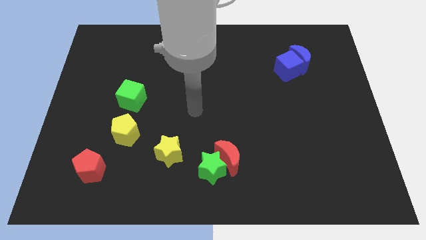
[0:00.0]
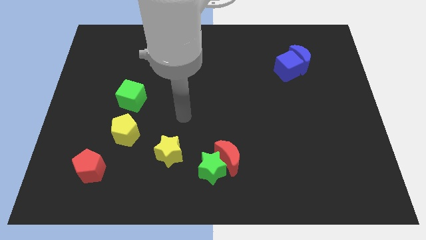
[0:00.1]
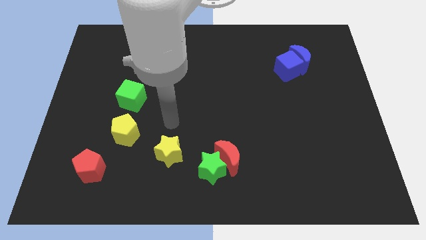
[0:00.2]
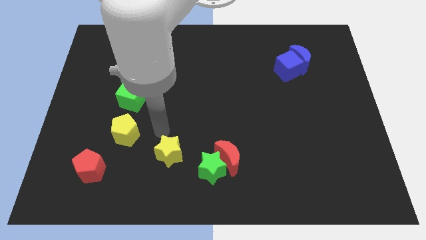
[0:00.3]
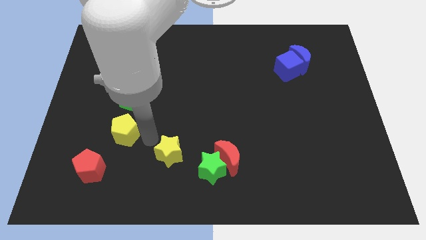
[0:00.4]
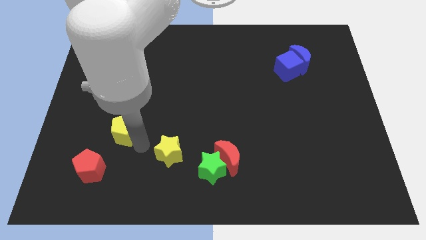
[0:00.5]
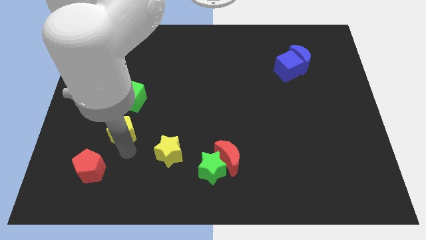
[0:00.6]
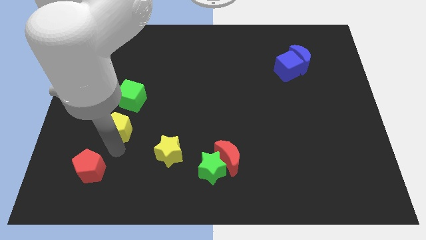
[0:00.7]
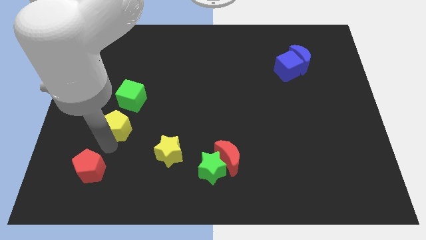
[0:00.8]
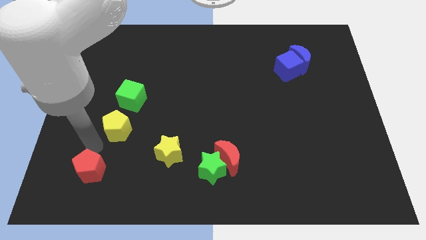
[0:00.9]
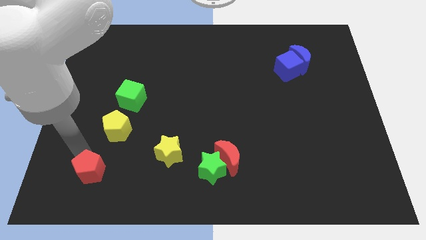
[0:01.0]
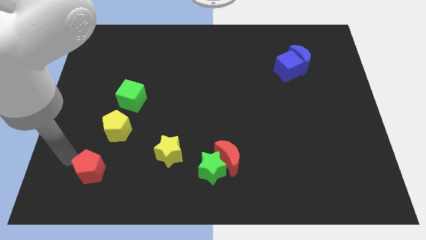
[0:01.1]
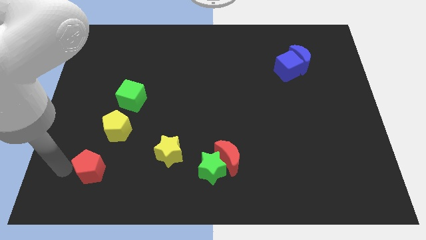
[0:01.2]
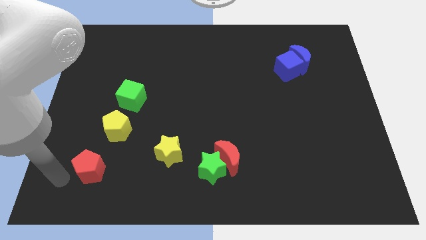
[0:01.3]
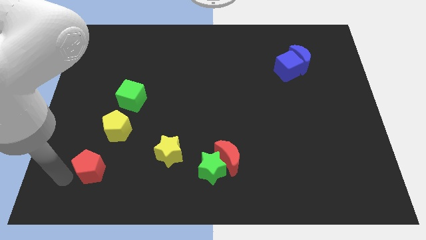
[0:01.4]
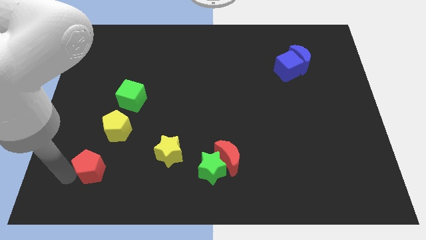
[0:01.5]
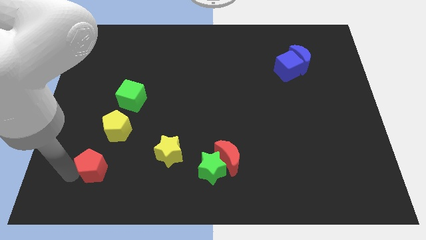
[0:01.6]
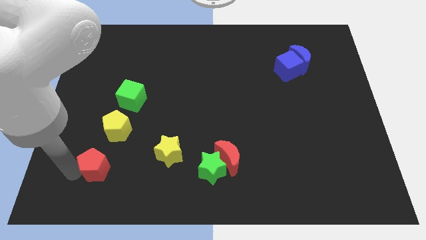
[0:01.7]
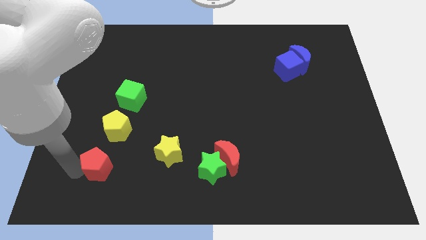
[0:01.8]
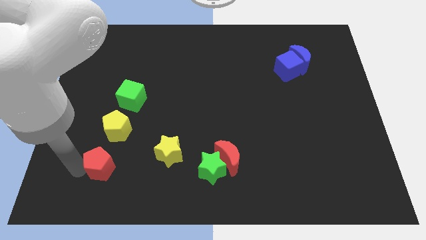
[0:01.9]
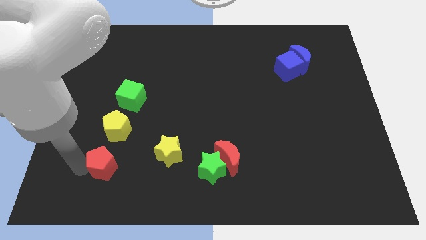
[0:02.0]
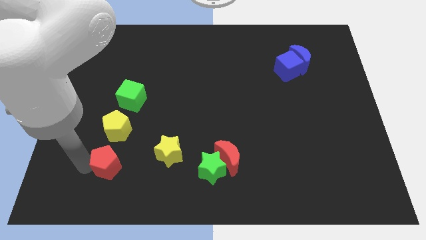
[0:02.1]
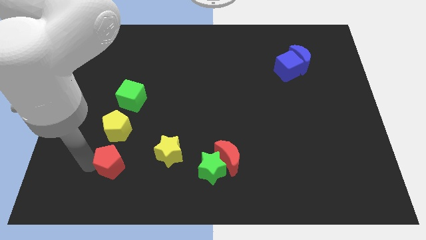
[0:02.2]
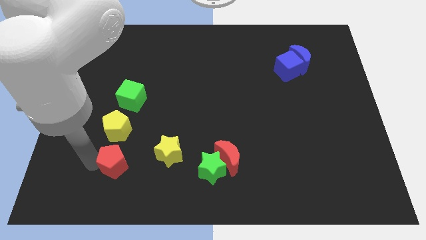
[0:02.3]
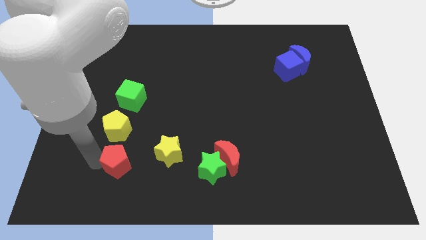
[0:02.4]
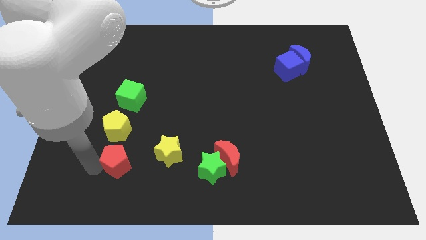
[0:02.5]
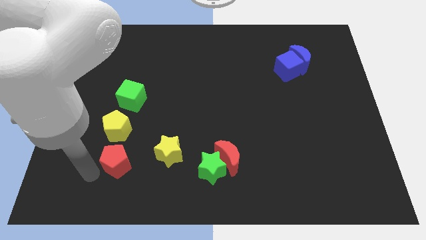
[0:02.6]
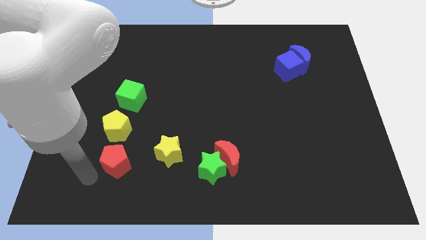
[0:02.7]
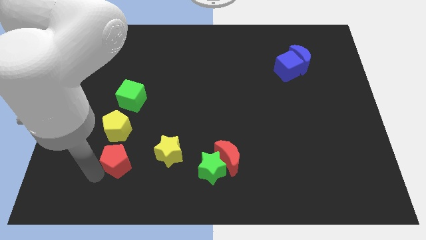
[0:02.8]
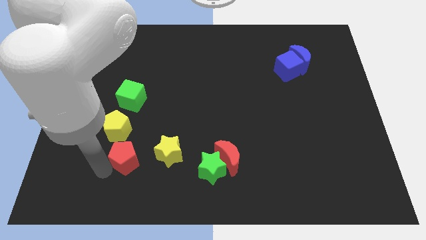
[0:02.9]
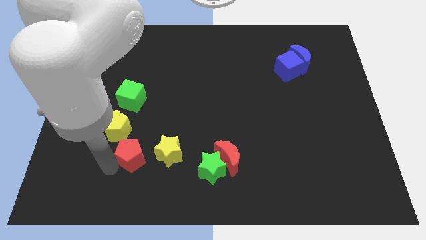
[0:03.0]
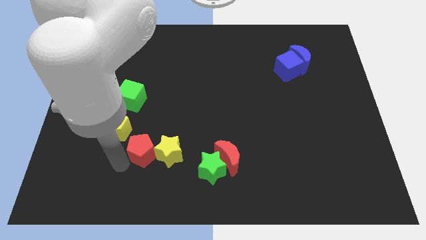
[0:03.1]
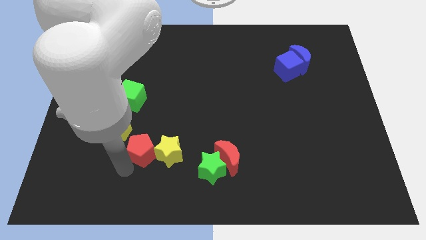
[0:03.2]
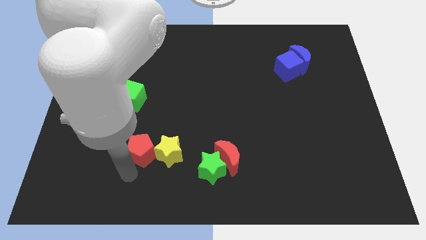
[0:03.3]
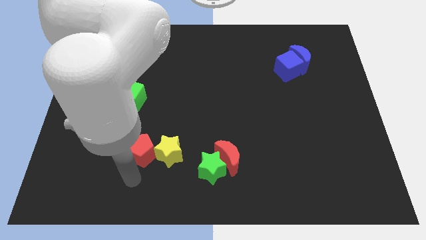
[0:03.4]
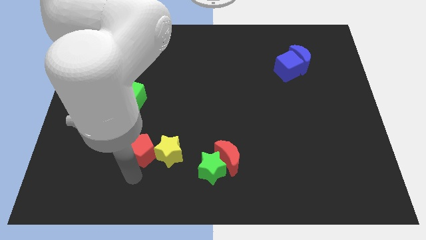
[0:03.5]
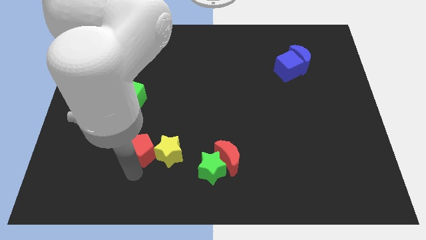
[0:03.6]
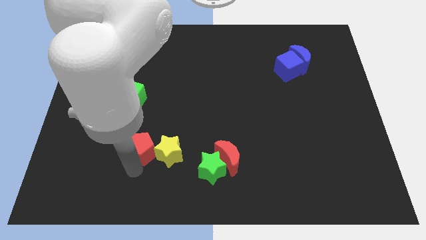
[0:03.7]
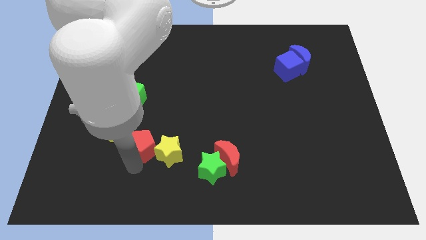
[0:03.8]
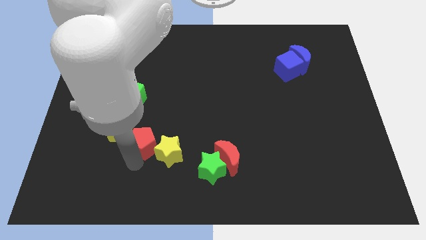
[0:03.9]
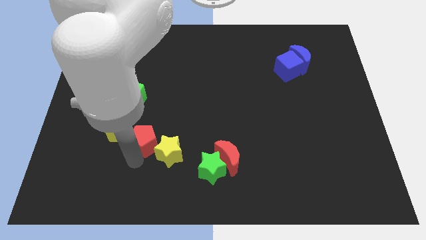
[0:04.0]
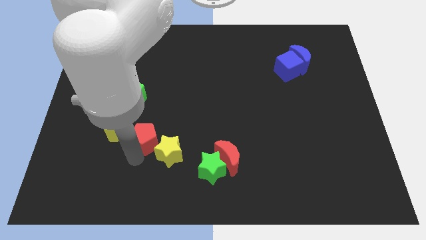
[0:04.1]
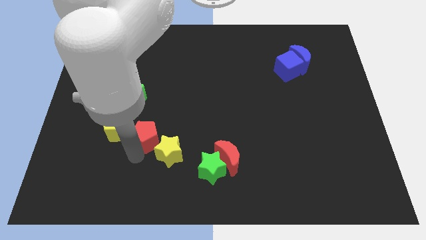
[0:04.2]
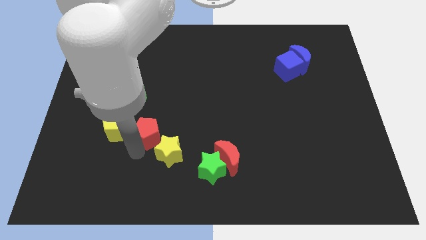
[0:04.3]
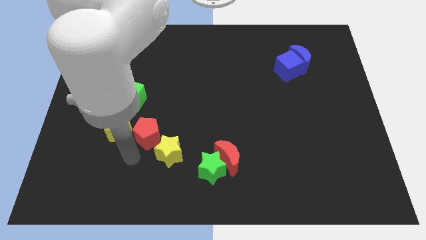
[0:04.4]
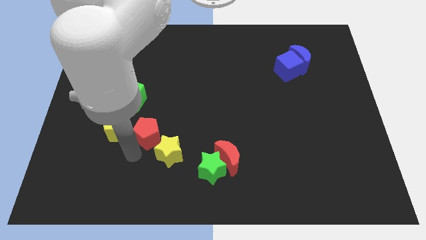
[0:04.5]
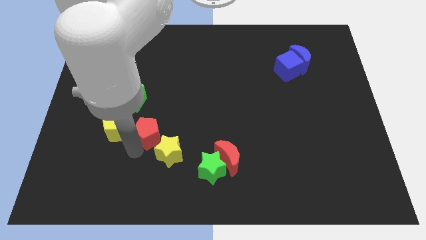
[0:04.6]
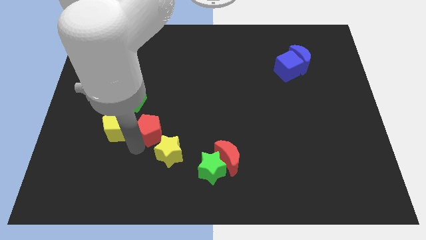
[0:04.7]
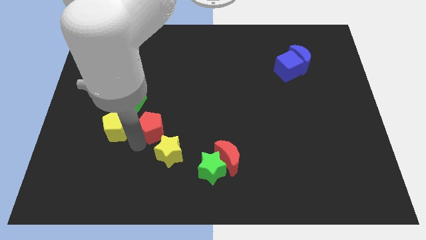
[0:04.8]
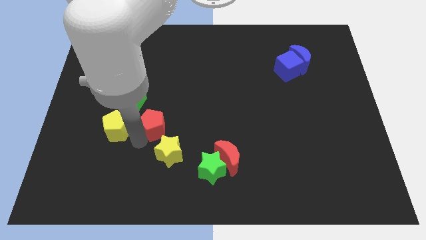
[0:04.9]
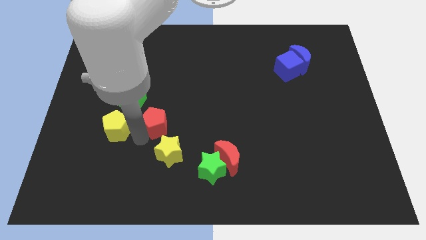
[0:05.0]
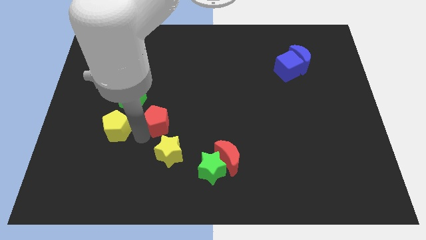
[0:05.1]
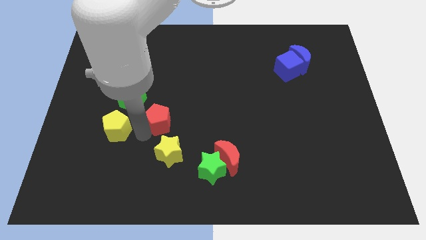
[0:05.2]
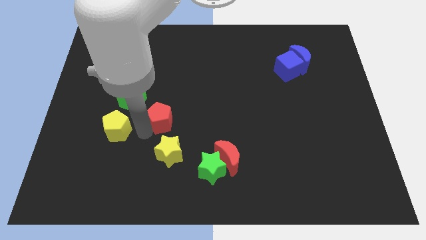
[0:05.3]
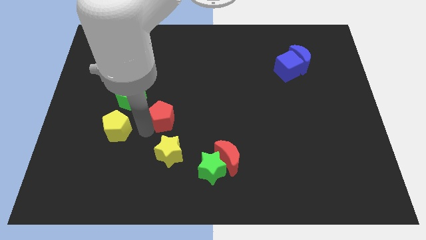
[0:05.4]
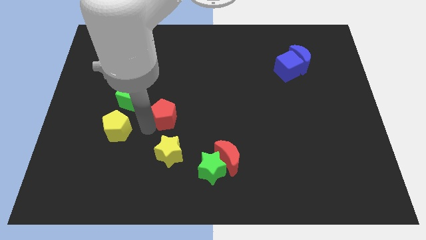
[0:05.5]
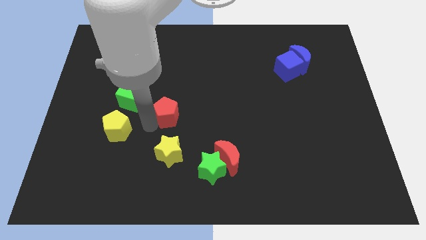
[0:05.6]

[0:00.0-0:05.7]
move the red pentagon up and then right

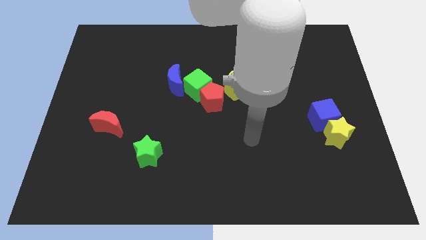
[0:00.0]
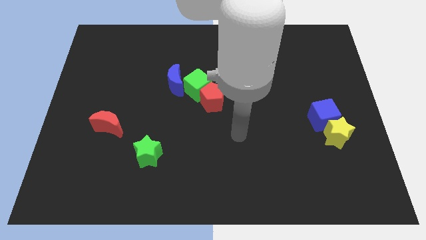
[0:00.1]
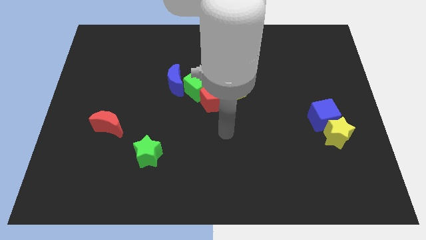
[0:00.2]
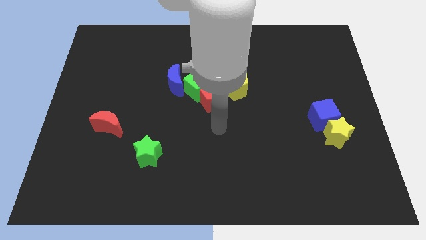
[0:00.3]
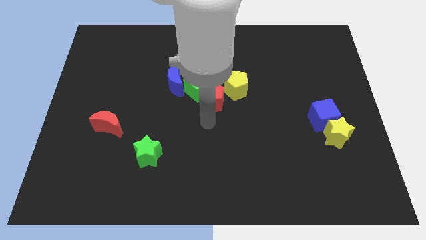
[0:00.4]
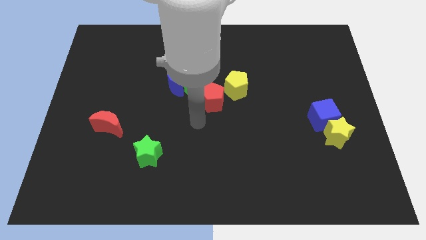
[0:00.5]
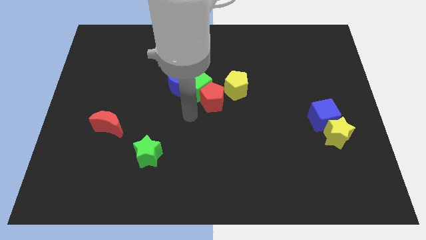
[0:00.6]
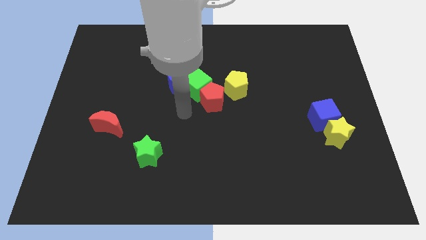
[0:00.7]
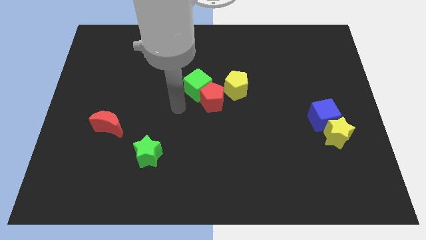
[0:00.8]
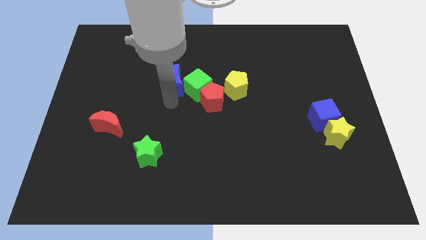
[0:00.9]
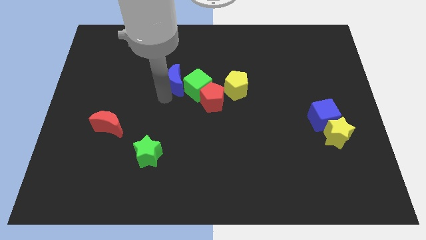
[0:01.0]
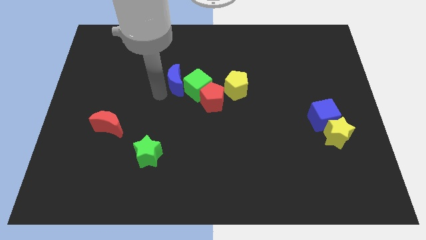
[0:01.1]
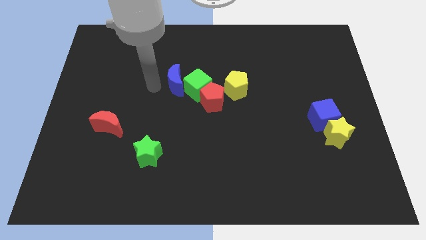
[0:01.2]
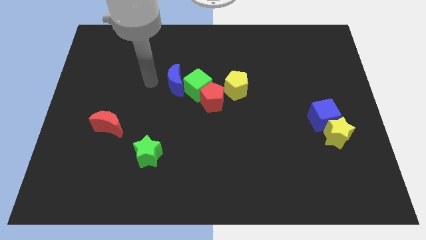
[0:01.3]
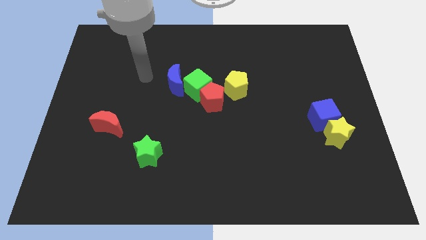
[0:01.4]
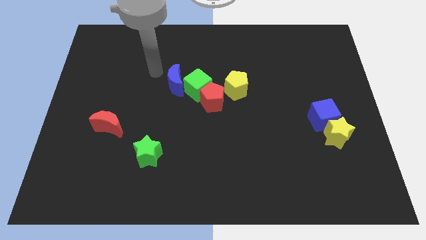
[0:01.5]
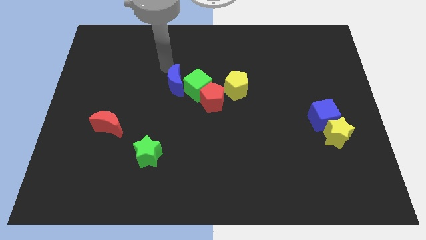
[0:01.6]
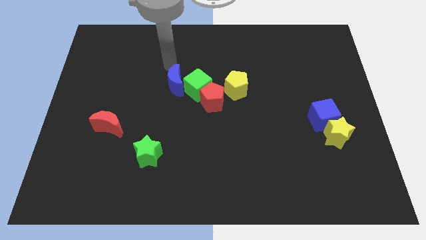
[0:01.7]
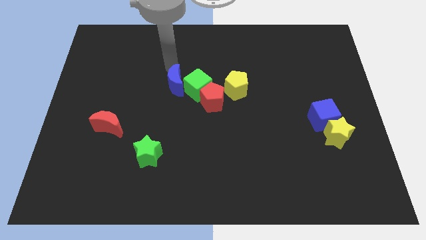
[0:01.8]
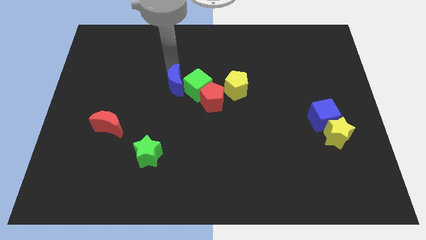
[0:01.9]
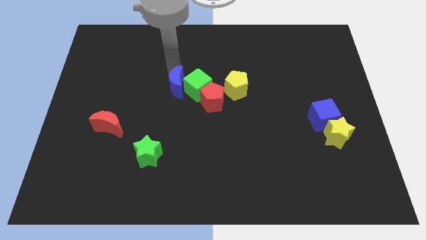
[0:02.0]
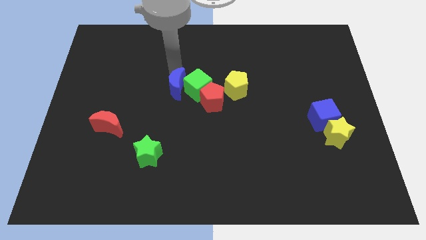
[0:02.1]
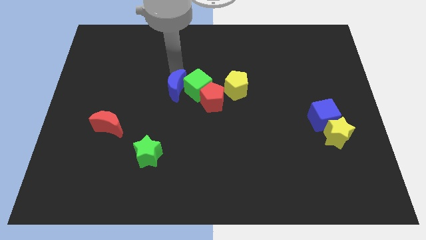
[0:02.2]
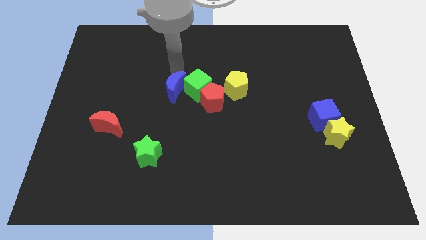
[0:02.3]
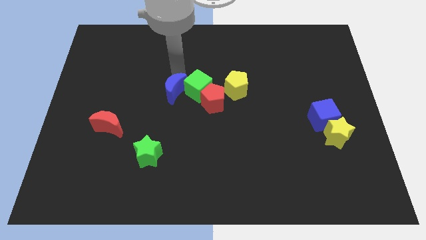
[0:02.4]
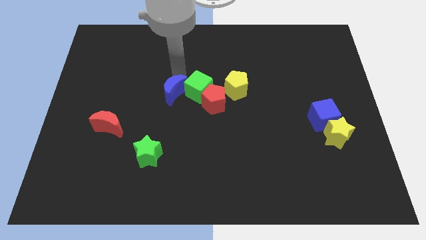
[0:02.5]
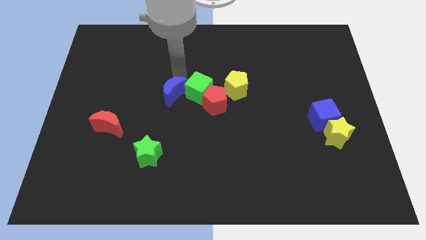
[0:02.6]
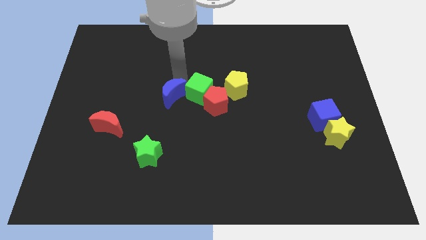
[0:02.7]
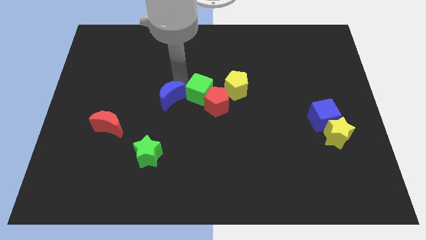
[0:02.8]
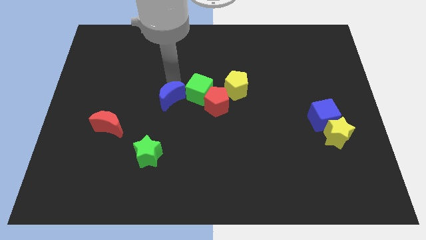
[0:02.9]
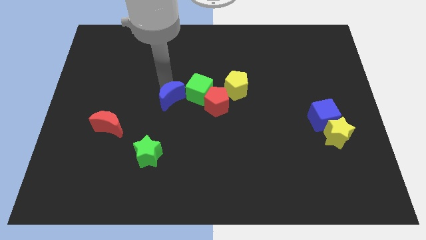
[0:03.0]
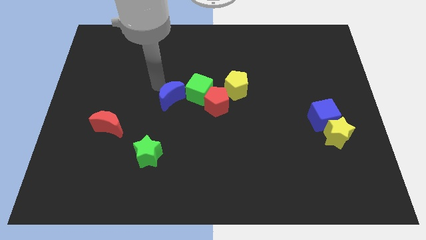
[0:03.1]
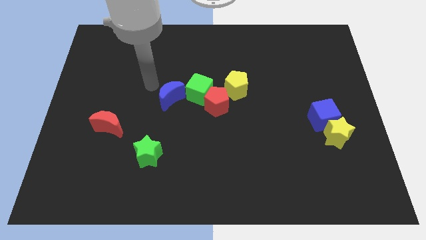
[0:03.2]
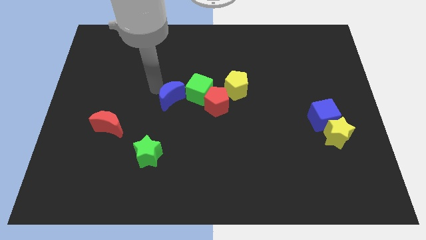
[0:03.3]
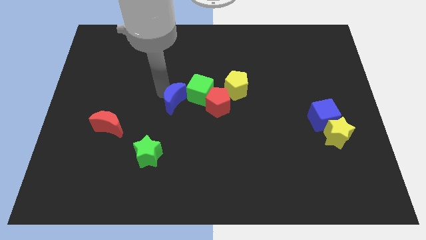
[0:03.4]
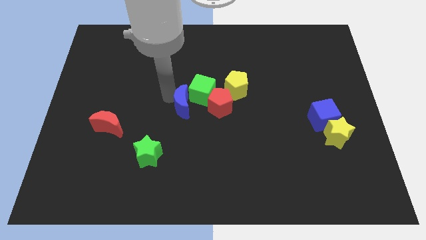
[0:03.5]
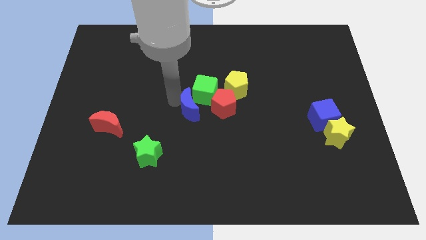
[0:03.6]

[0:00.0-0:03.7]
move the blue moon a little down and then to the right
